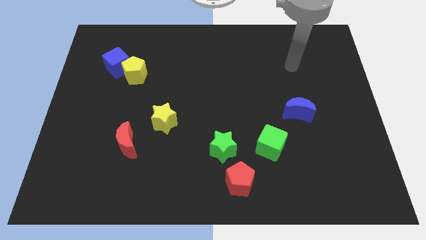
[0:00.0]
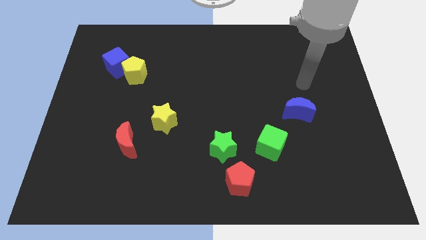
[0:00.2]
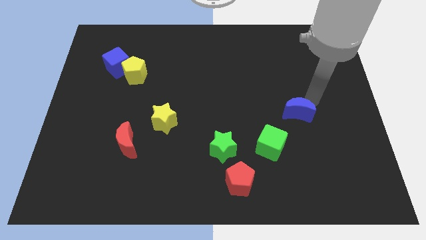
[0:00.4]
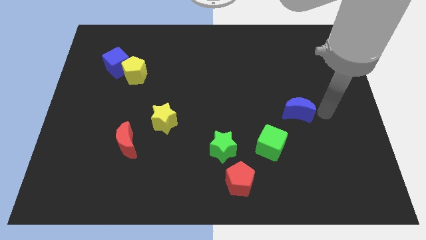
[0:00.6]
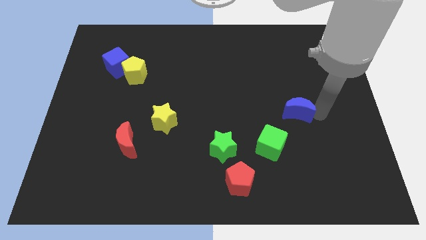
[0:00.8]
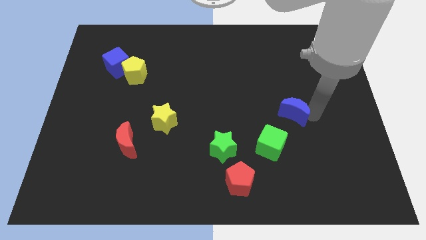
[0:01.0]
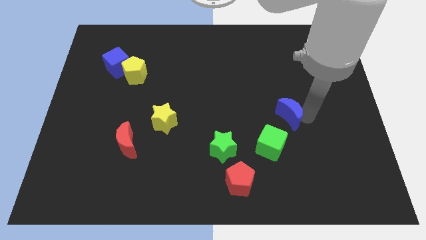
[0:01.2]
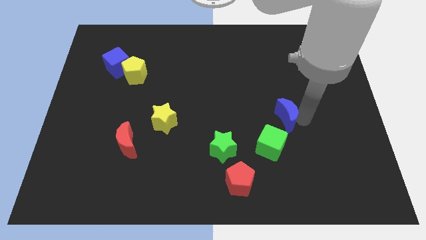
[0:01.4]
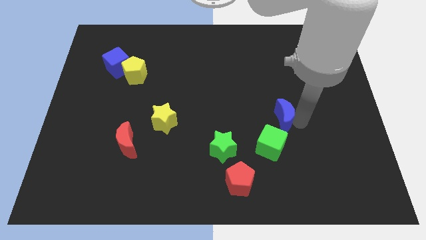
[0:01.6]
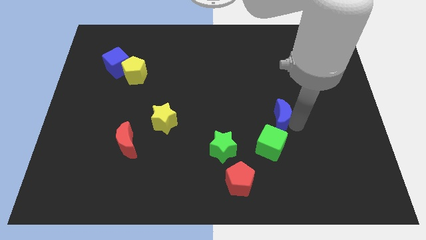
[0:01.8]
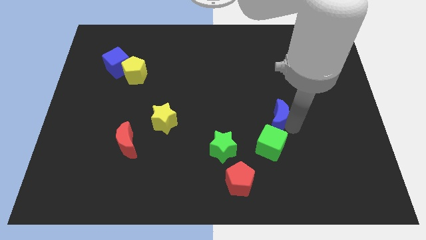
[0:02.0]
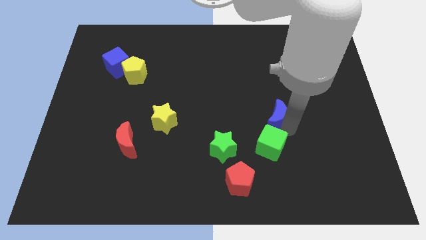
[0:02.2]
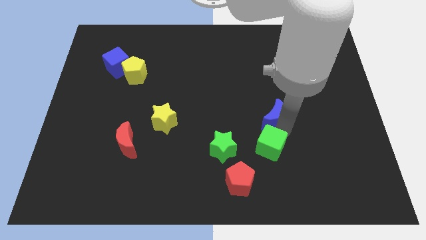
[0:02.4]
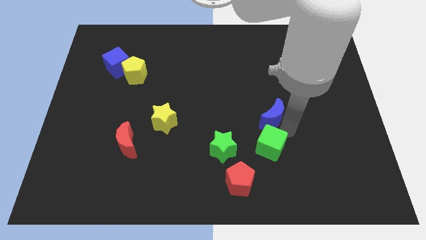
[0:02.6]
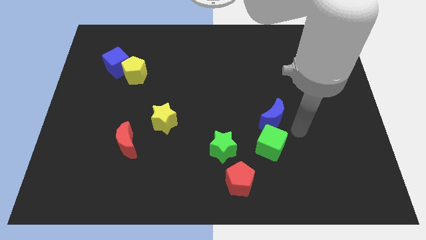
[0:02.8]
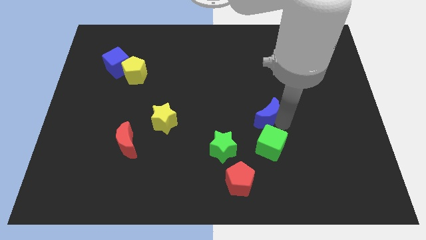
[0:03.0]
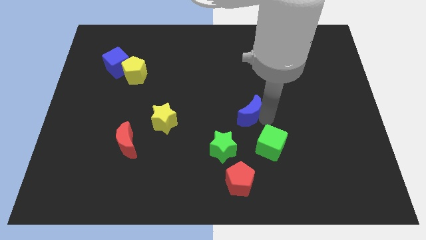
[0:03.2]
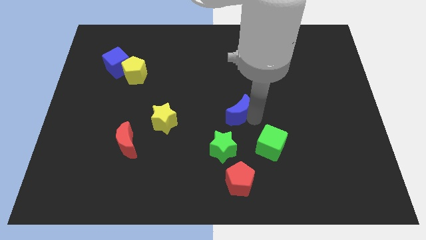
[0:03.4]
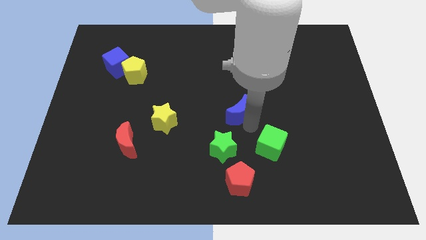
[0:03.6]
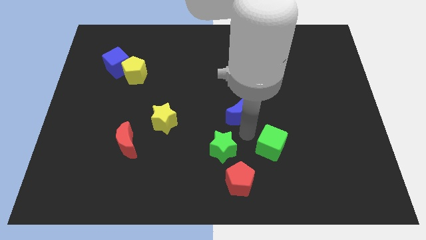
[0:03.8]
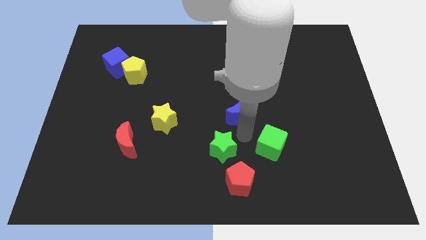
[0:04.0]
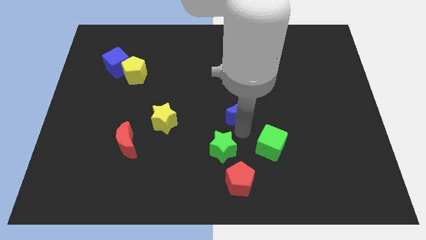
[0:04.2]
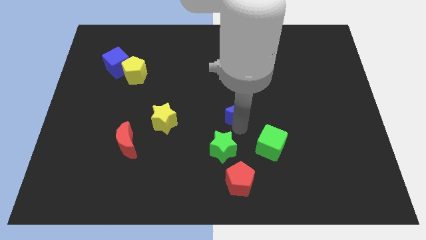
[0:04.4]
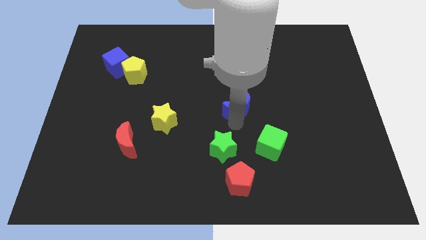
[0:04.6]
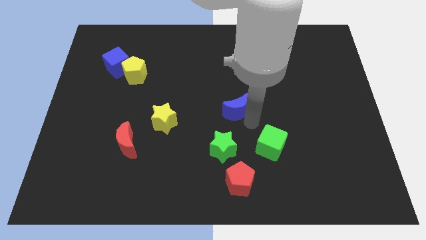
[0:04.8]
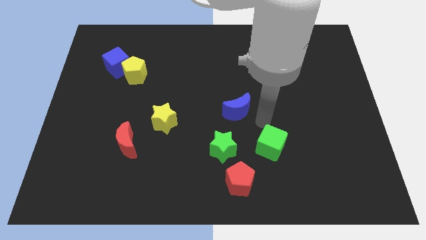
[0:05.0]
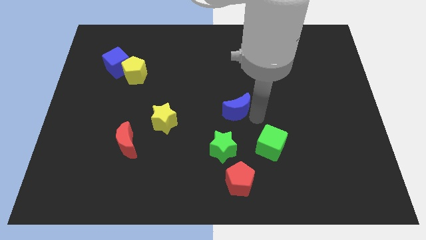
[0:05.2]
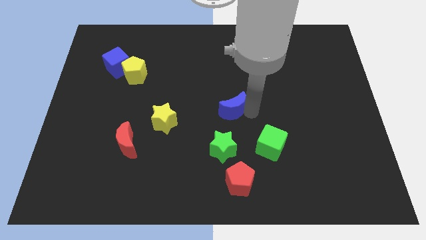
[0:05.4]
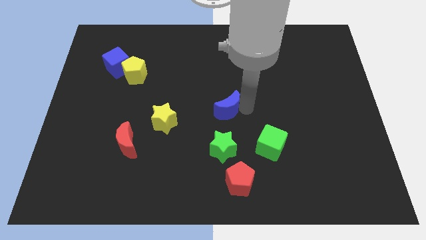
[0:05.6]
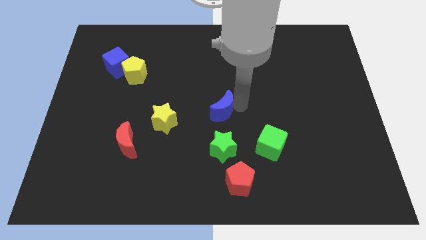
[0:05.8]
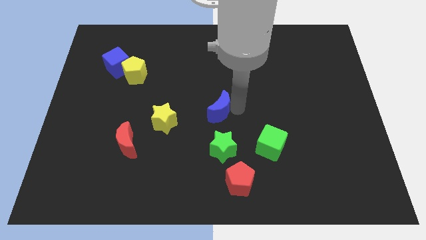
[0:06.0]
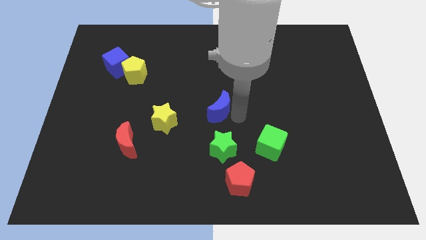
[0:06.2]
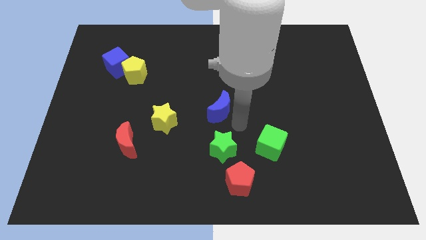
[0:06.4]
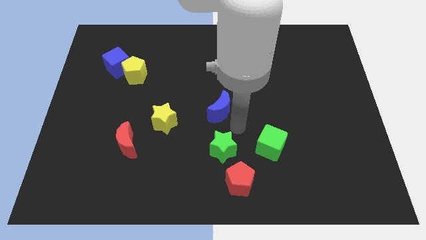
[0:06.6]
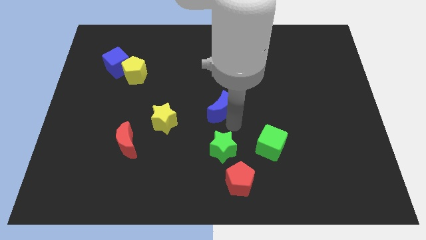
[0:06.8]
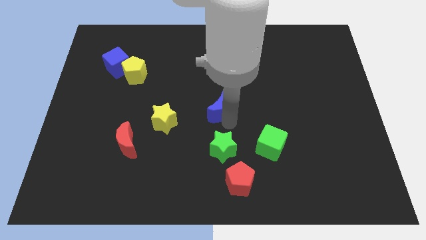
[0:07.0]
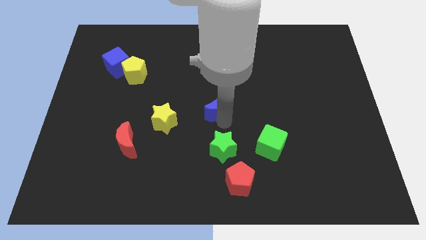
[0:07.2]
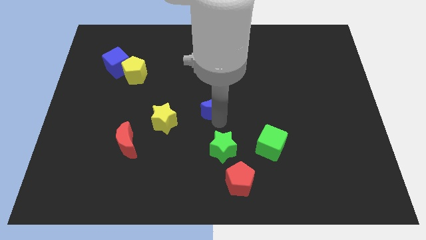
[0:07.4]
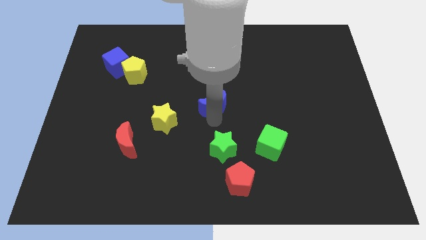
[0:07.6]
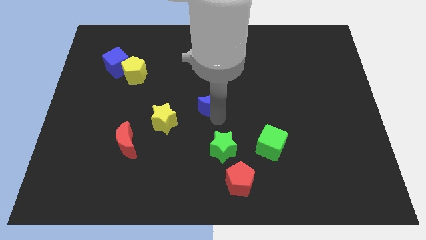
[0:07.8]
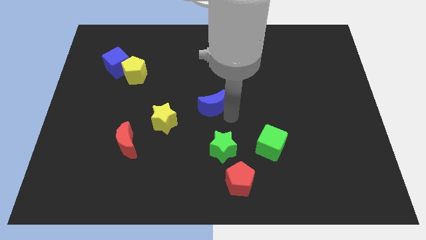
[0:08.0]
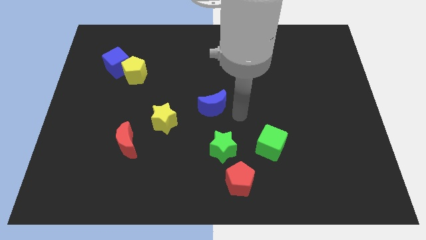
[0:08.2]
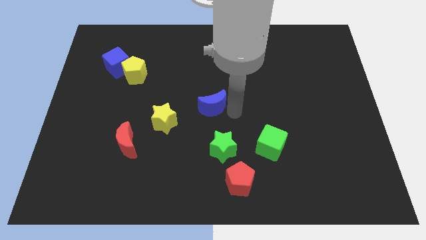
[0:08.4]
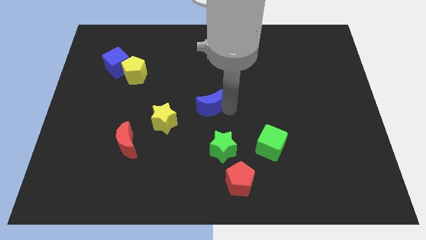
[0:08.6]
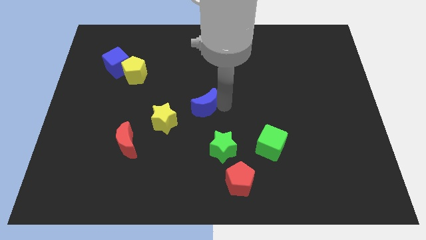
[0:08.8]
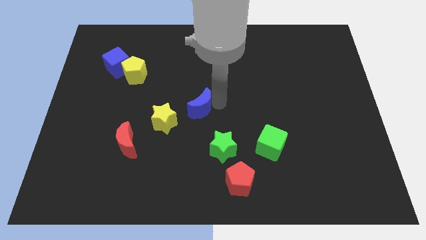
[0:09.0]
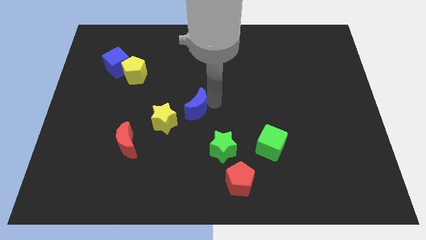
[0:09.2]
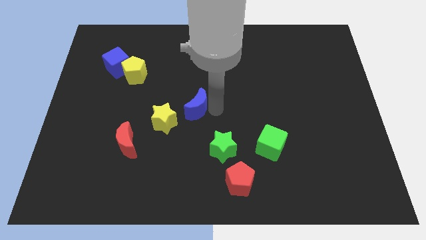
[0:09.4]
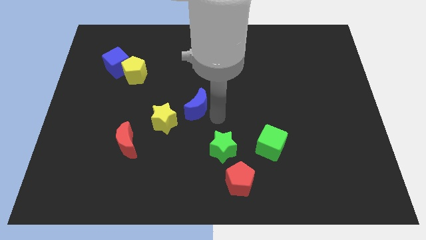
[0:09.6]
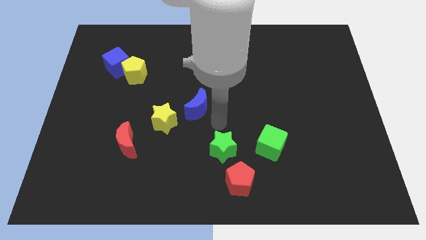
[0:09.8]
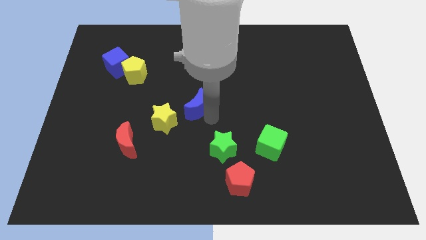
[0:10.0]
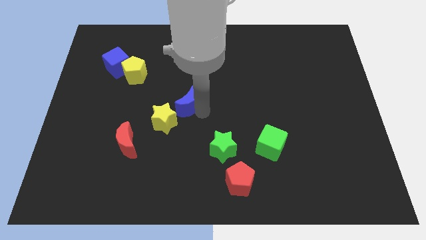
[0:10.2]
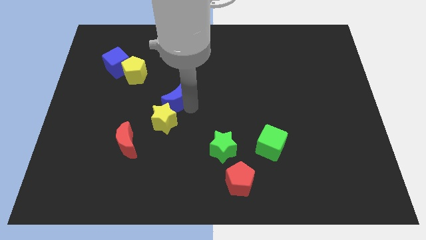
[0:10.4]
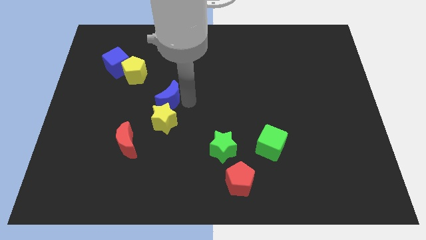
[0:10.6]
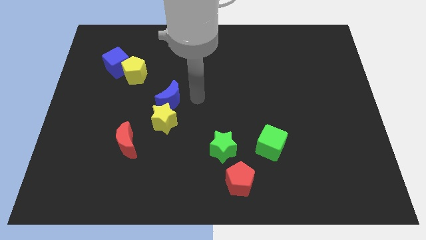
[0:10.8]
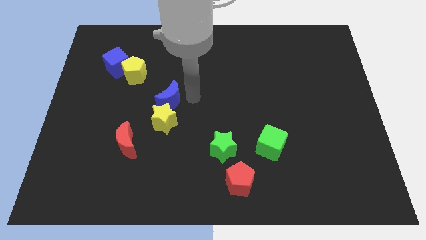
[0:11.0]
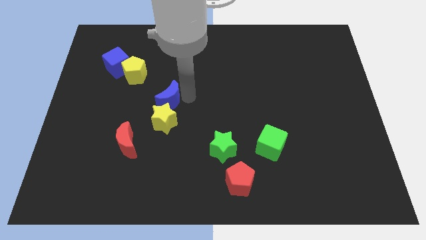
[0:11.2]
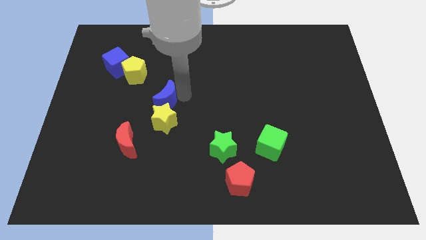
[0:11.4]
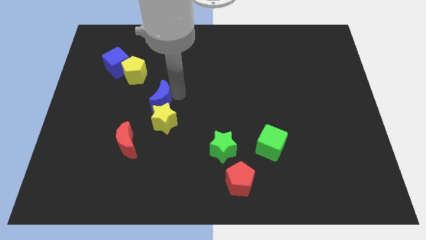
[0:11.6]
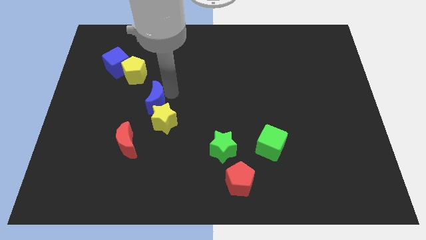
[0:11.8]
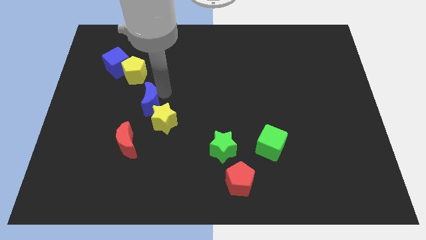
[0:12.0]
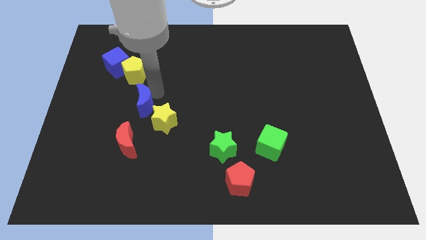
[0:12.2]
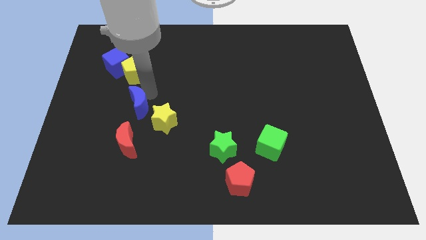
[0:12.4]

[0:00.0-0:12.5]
move the blue moon to the left of the yellow star

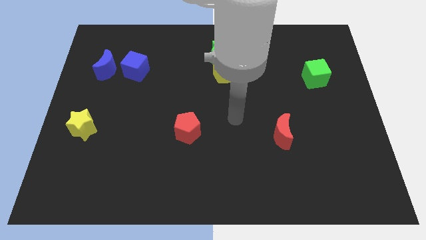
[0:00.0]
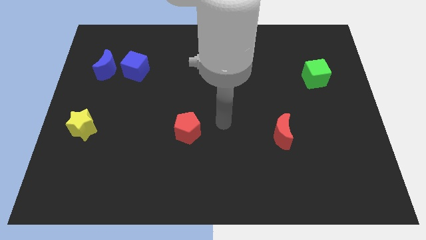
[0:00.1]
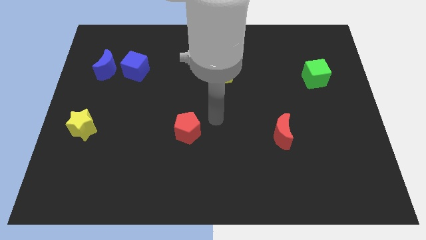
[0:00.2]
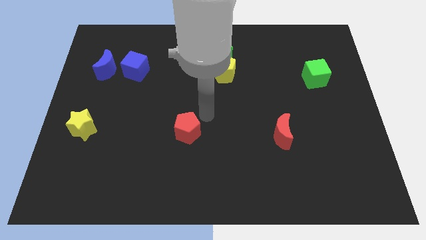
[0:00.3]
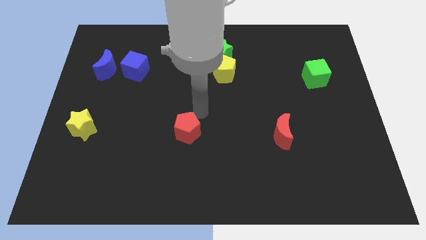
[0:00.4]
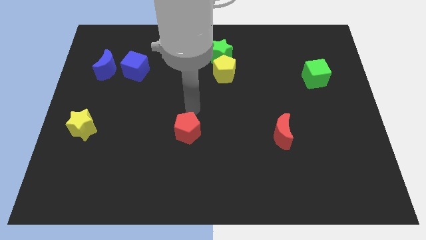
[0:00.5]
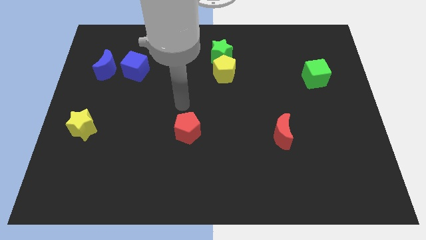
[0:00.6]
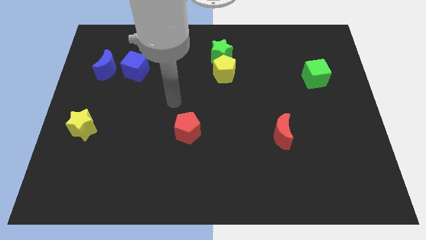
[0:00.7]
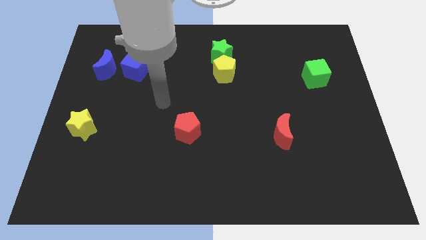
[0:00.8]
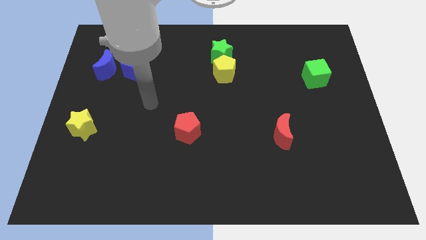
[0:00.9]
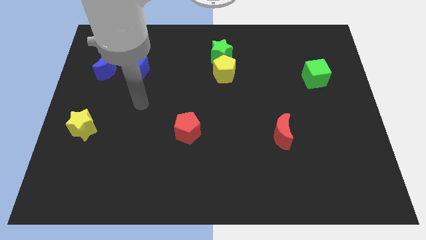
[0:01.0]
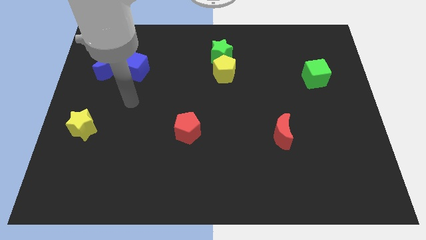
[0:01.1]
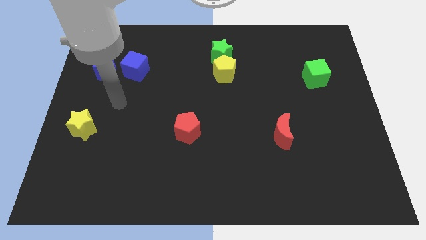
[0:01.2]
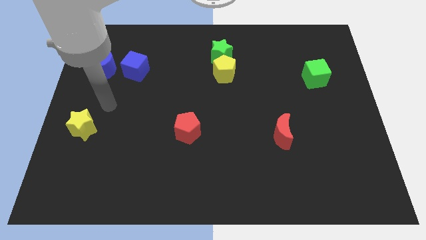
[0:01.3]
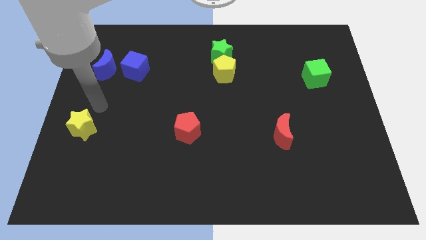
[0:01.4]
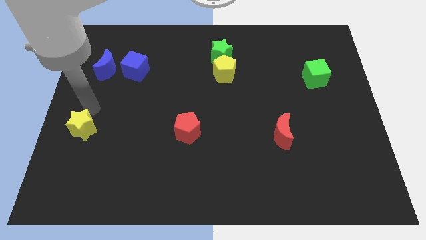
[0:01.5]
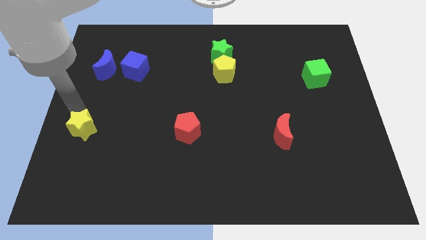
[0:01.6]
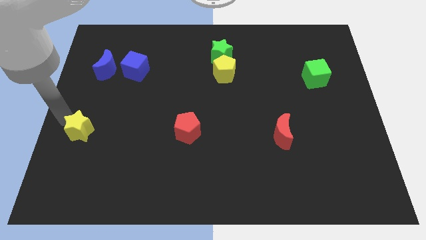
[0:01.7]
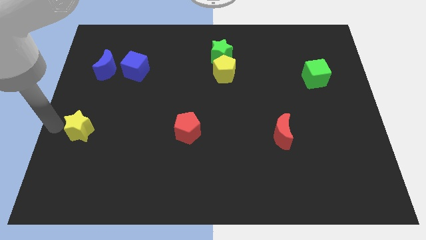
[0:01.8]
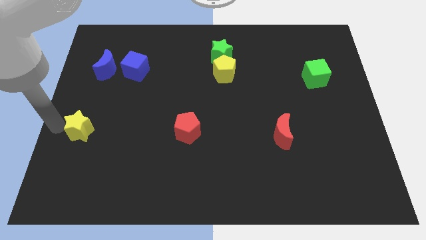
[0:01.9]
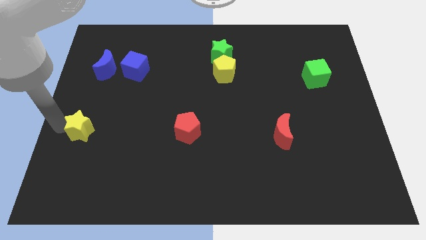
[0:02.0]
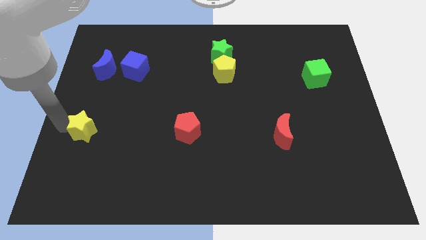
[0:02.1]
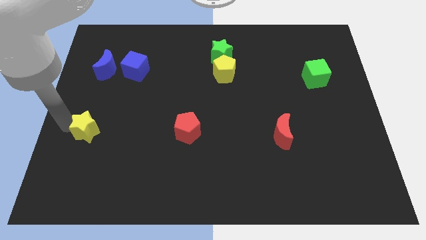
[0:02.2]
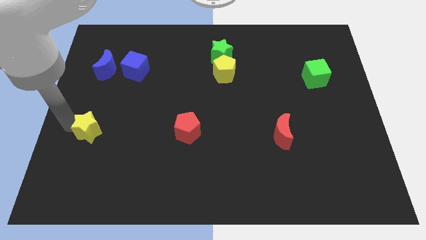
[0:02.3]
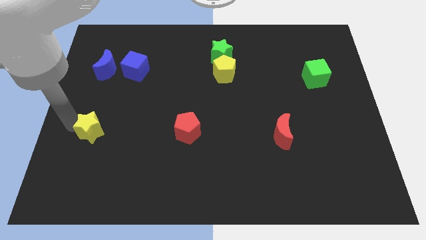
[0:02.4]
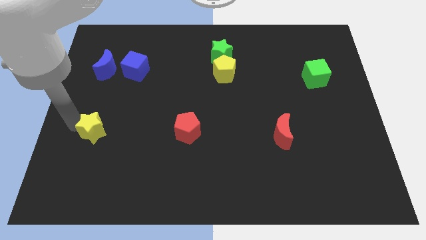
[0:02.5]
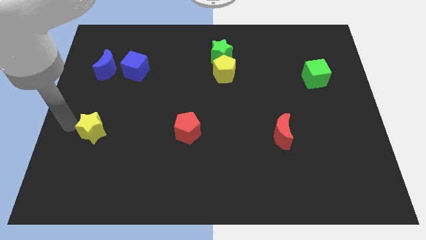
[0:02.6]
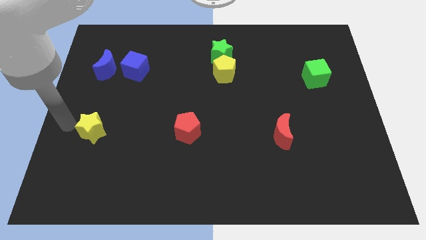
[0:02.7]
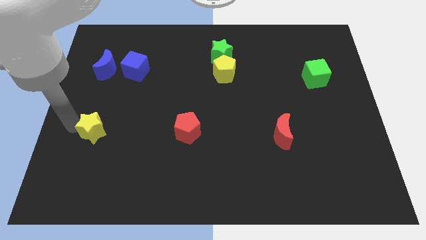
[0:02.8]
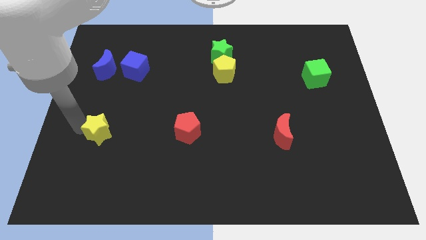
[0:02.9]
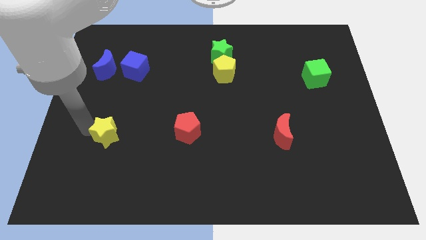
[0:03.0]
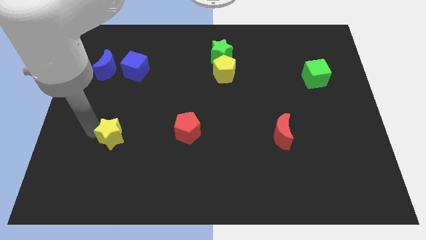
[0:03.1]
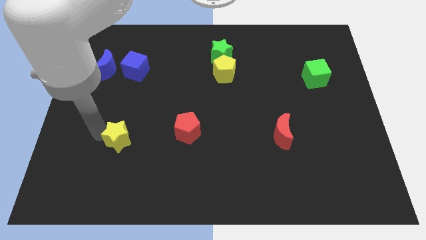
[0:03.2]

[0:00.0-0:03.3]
slide the yellow star to the left side of the red pentagon
